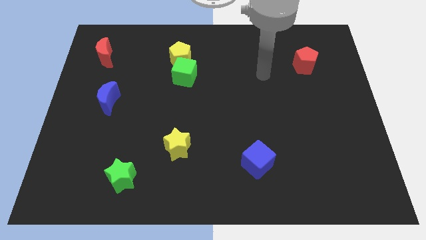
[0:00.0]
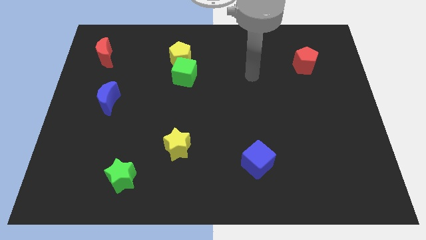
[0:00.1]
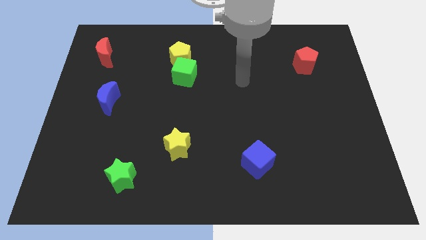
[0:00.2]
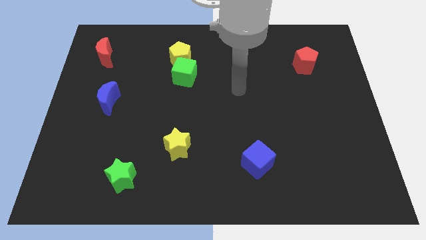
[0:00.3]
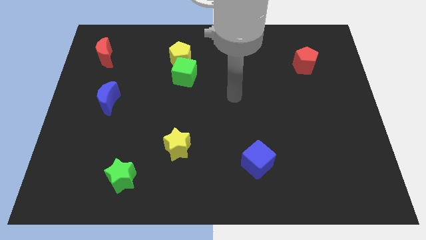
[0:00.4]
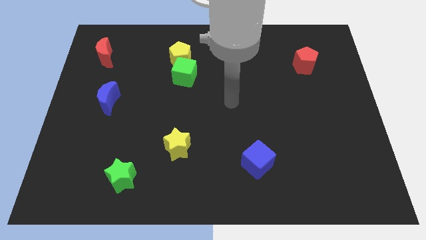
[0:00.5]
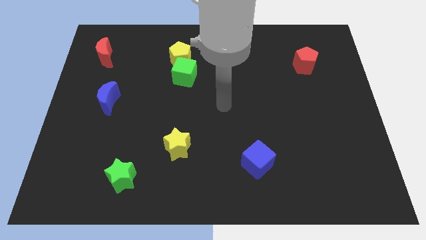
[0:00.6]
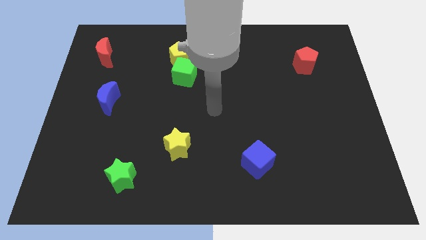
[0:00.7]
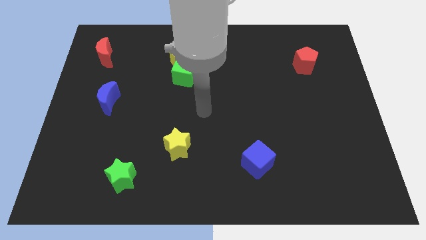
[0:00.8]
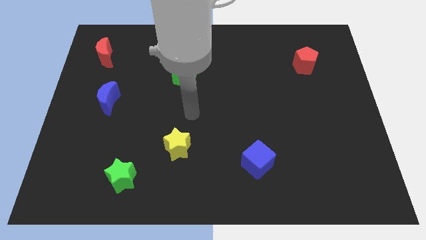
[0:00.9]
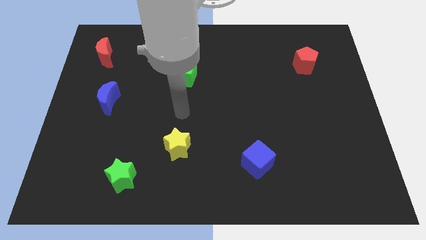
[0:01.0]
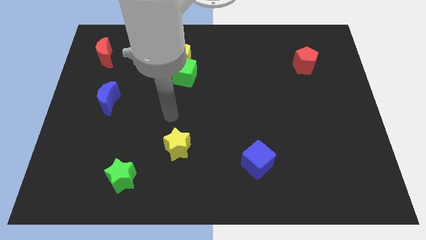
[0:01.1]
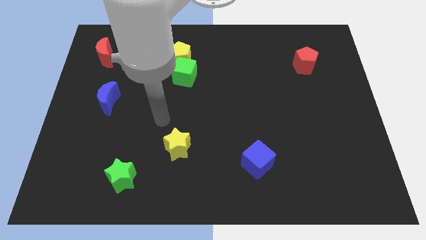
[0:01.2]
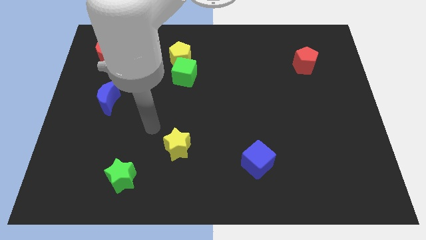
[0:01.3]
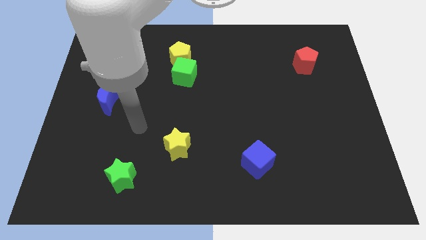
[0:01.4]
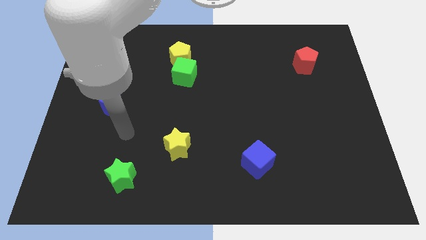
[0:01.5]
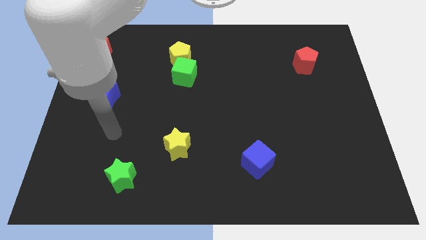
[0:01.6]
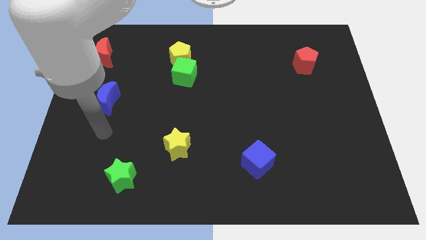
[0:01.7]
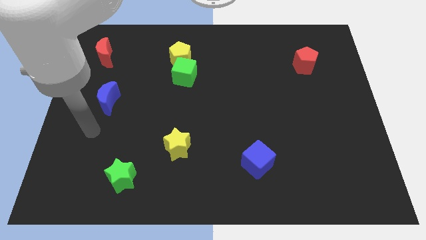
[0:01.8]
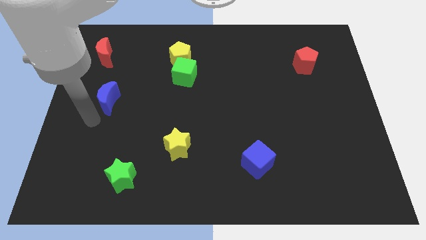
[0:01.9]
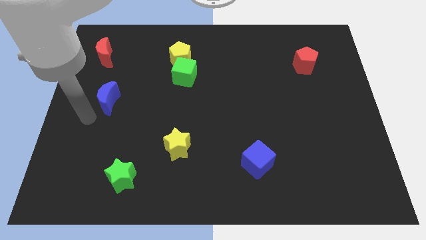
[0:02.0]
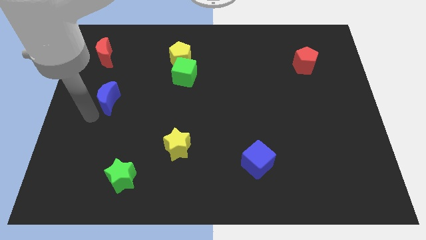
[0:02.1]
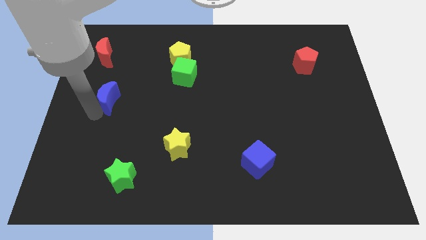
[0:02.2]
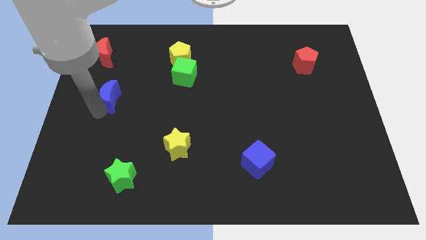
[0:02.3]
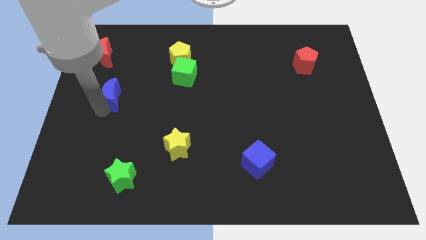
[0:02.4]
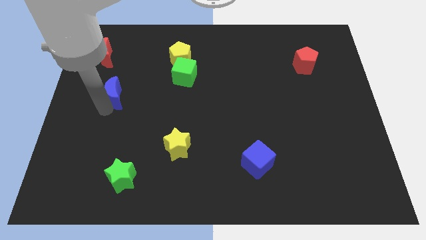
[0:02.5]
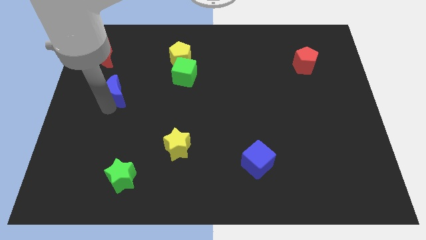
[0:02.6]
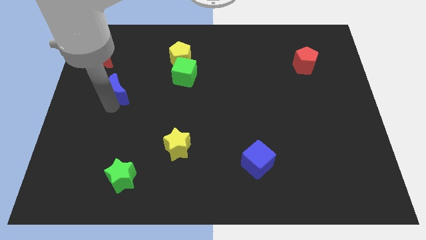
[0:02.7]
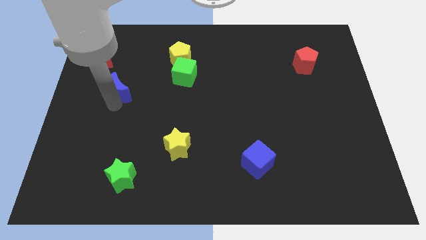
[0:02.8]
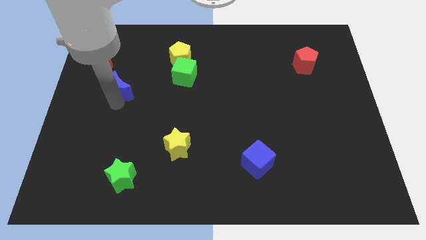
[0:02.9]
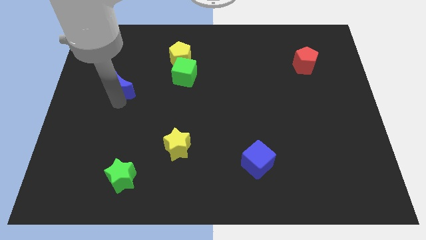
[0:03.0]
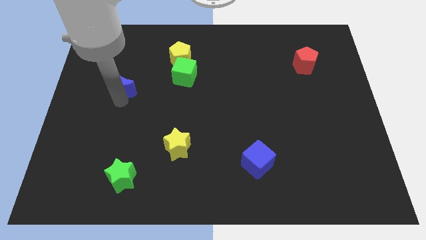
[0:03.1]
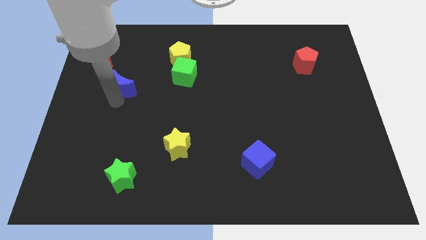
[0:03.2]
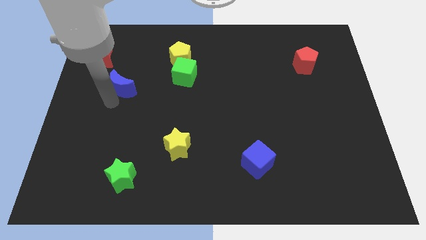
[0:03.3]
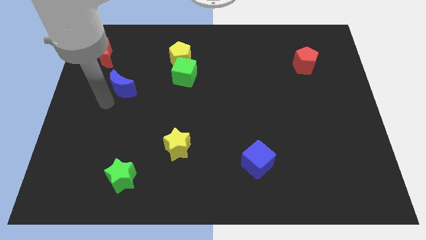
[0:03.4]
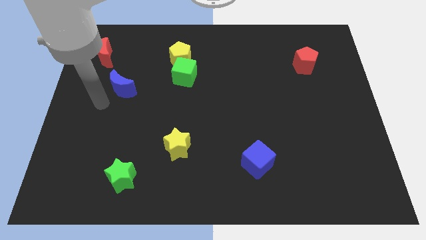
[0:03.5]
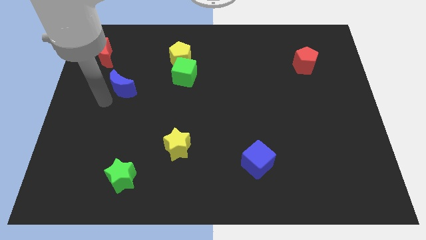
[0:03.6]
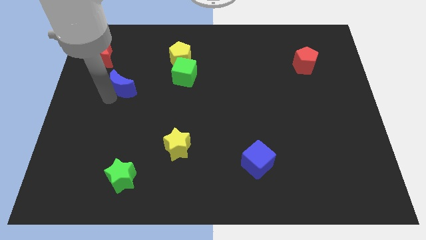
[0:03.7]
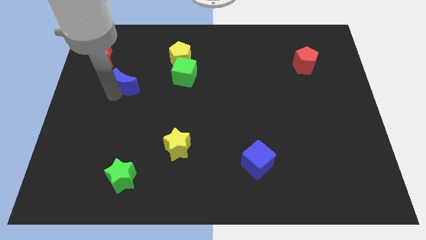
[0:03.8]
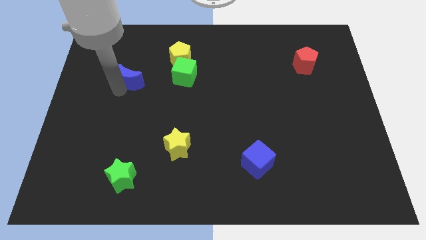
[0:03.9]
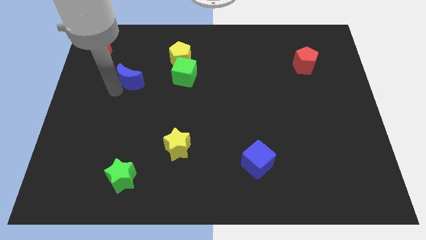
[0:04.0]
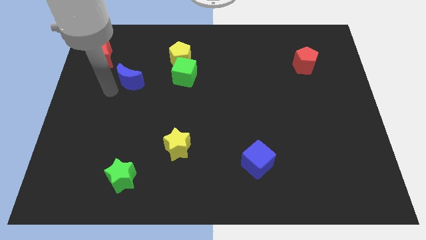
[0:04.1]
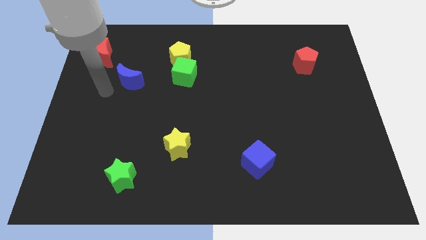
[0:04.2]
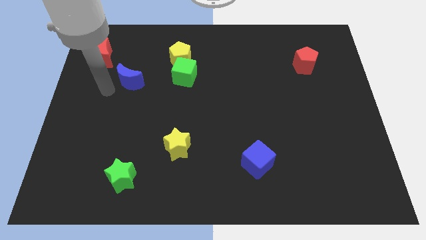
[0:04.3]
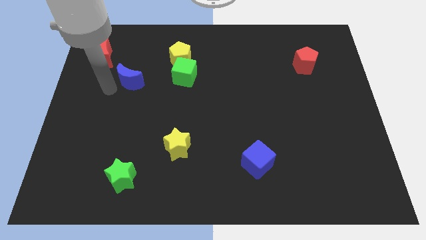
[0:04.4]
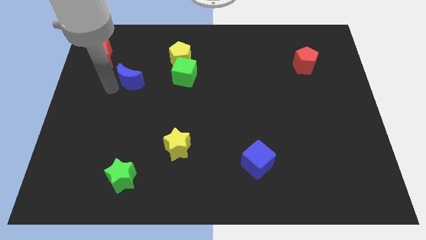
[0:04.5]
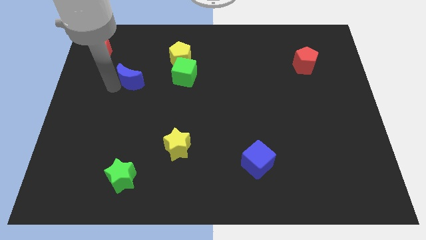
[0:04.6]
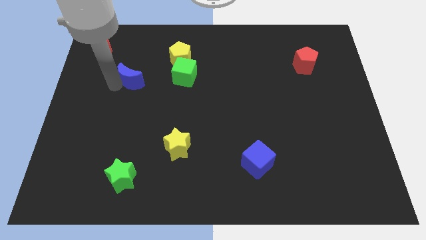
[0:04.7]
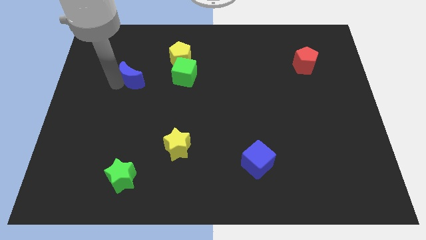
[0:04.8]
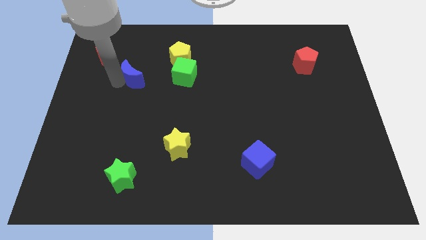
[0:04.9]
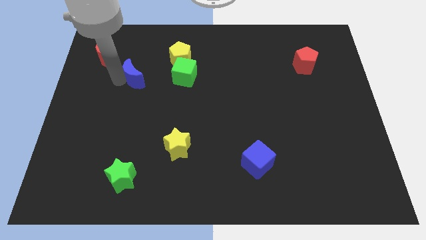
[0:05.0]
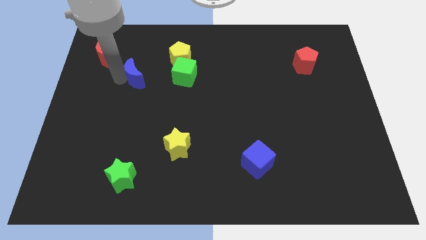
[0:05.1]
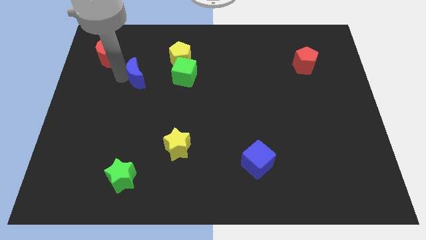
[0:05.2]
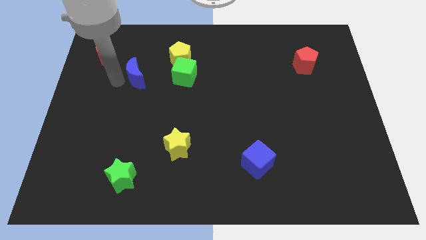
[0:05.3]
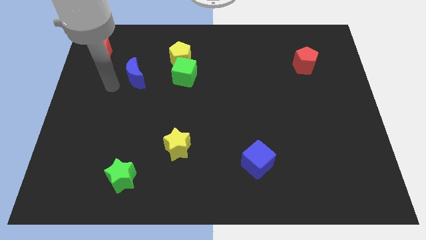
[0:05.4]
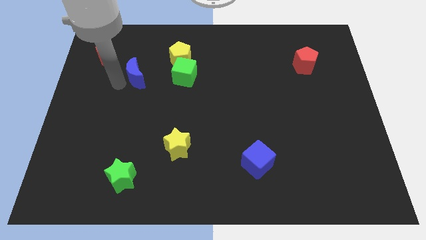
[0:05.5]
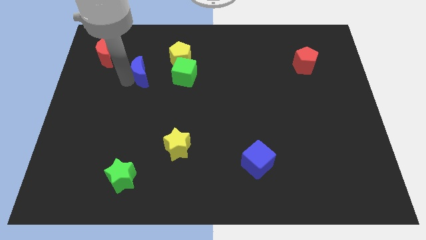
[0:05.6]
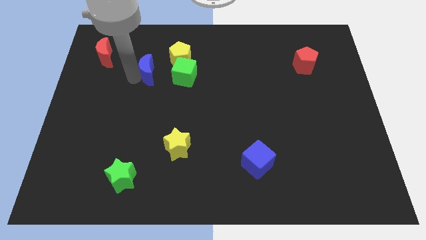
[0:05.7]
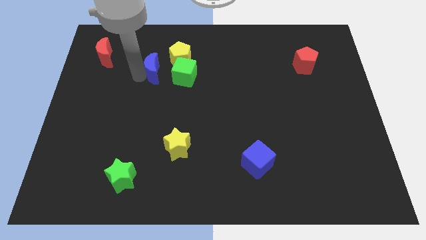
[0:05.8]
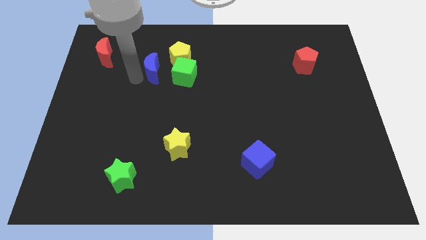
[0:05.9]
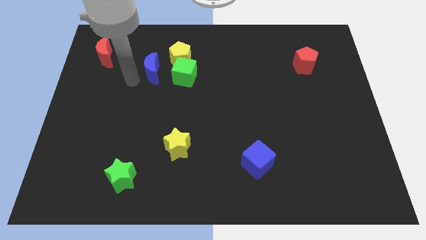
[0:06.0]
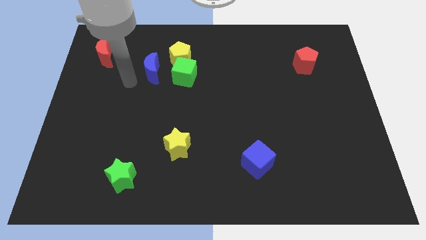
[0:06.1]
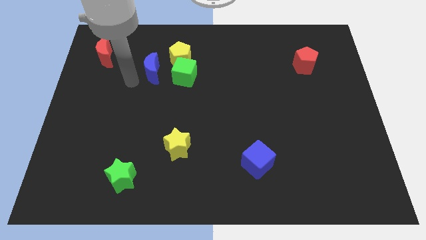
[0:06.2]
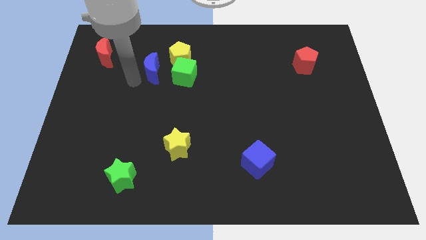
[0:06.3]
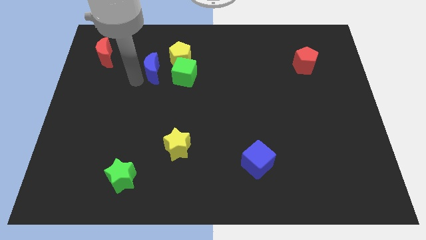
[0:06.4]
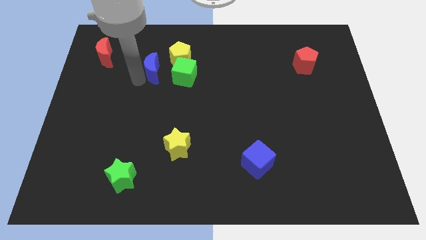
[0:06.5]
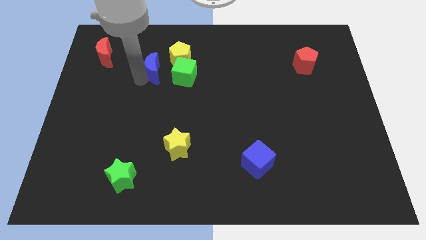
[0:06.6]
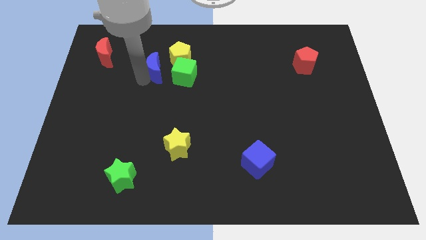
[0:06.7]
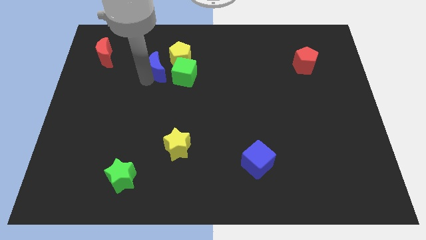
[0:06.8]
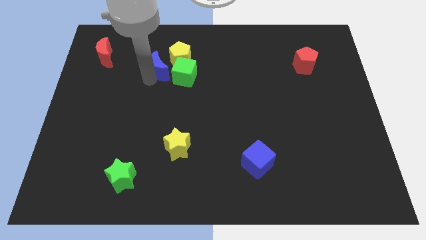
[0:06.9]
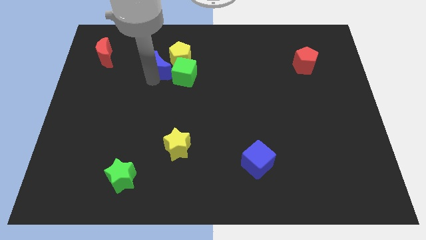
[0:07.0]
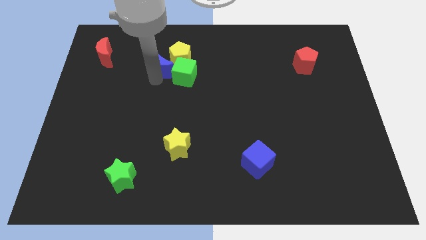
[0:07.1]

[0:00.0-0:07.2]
push the blue moon close to the yellow pentagon

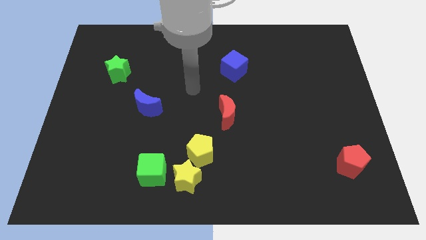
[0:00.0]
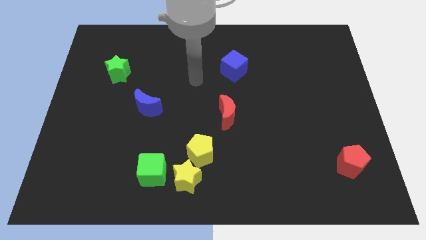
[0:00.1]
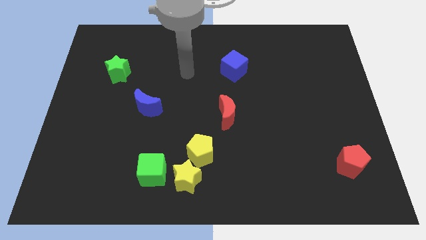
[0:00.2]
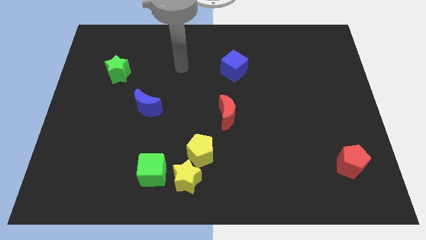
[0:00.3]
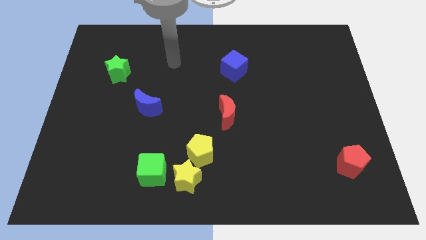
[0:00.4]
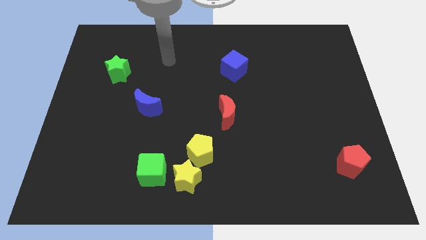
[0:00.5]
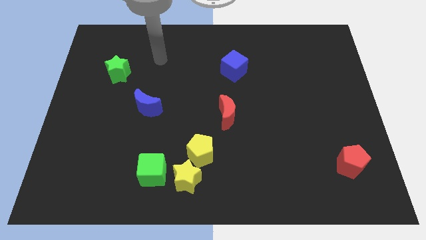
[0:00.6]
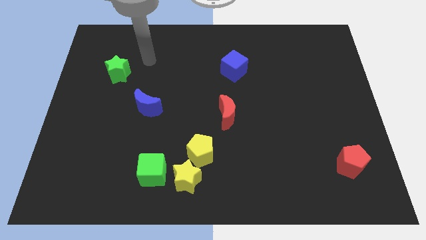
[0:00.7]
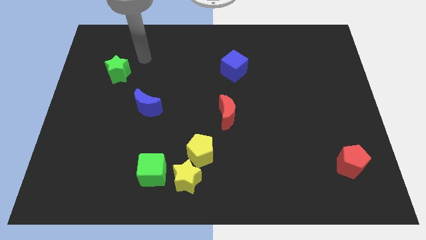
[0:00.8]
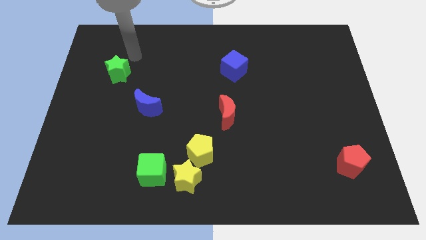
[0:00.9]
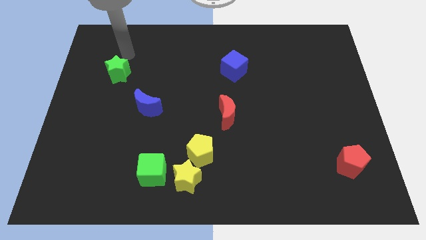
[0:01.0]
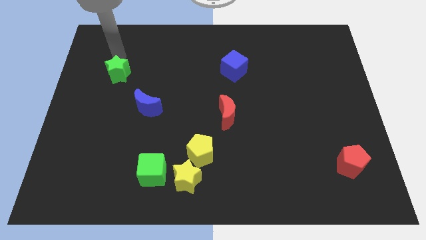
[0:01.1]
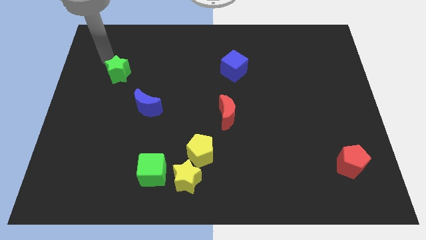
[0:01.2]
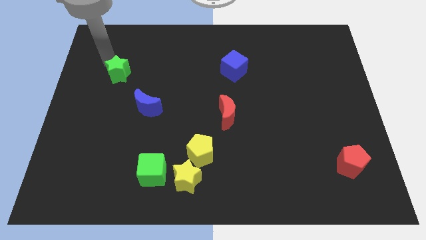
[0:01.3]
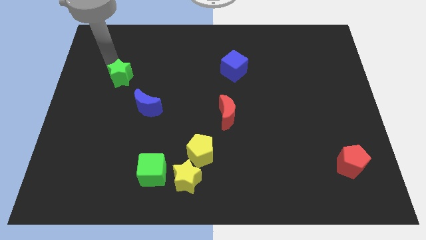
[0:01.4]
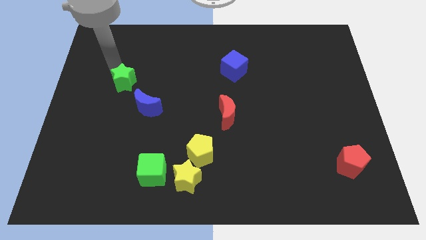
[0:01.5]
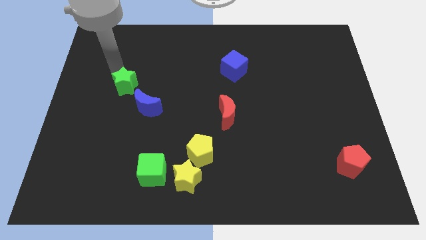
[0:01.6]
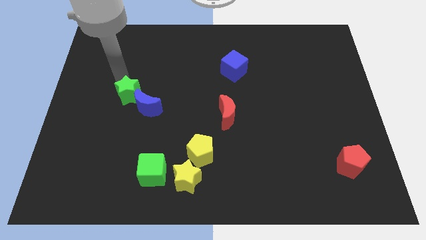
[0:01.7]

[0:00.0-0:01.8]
push the green star to the blue moon
